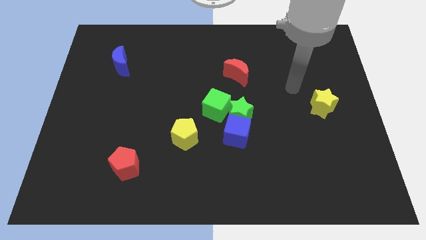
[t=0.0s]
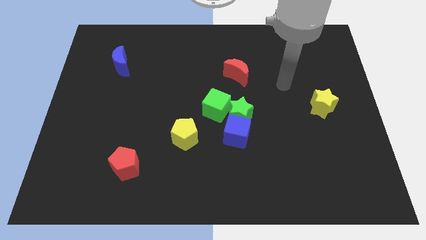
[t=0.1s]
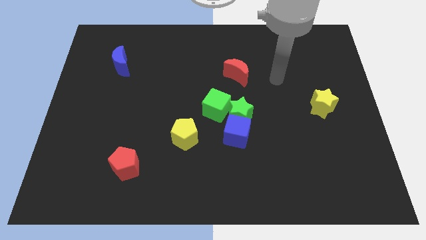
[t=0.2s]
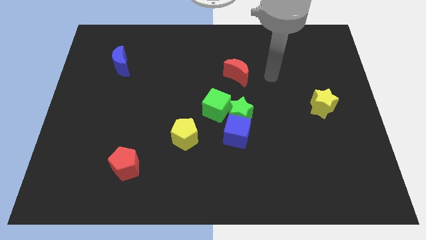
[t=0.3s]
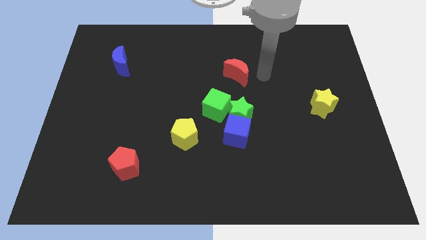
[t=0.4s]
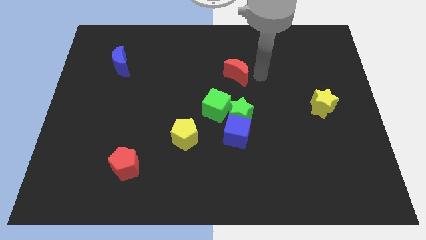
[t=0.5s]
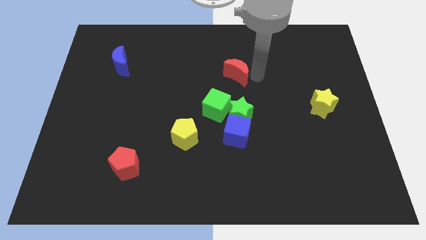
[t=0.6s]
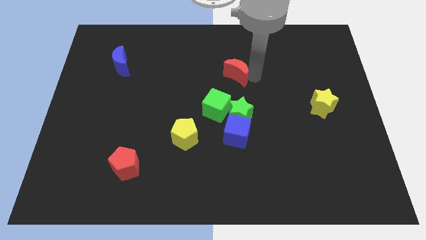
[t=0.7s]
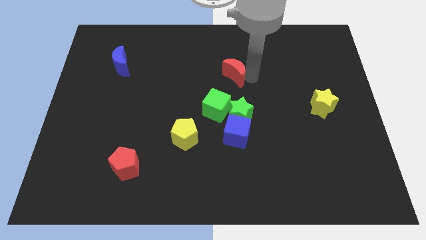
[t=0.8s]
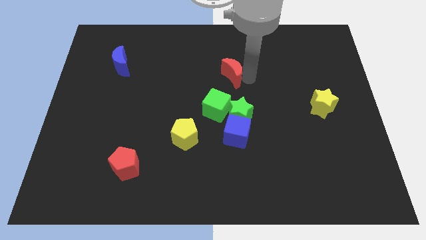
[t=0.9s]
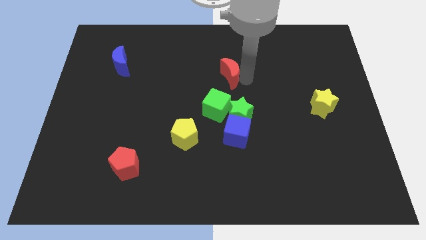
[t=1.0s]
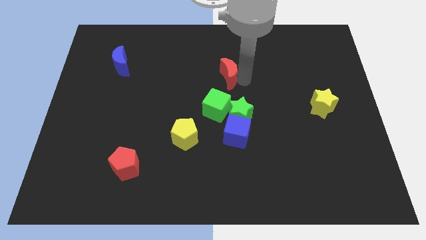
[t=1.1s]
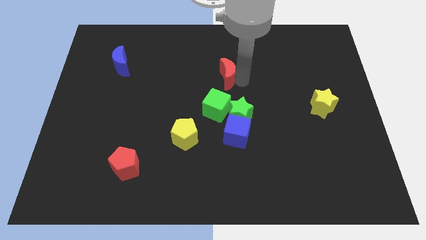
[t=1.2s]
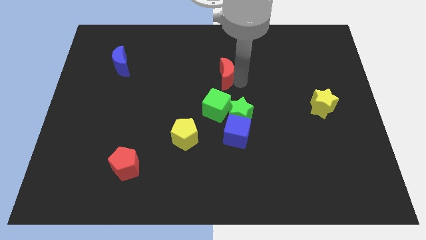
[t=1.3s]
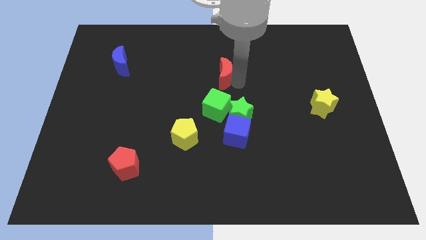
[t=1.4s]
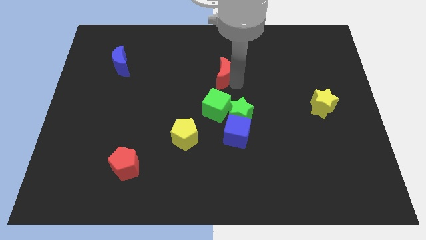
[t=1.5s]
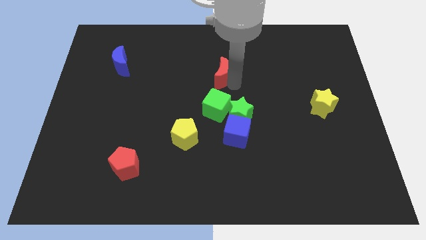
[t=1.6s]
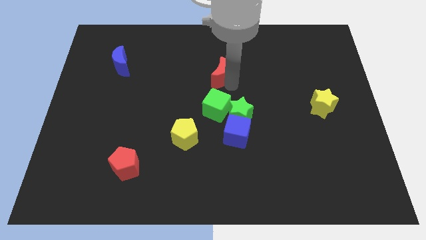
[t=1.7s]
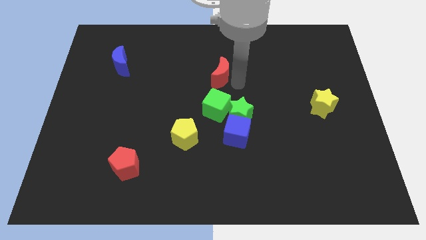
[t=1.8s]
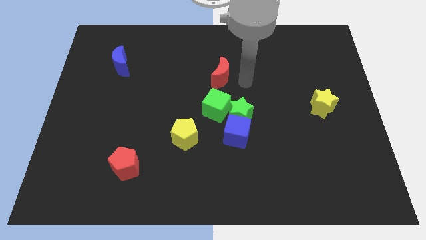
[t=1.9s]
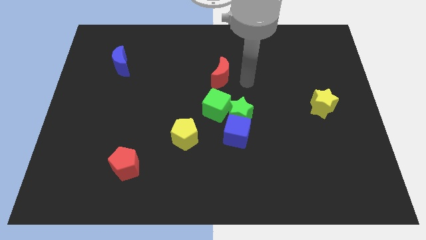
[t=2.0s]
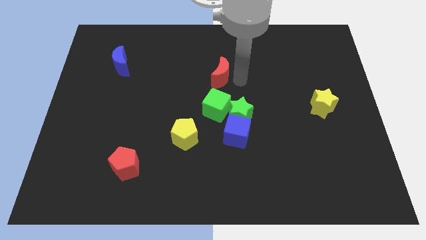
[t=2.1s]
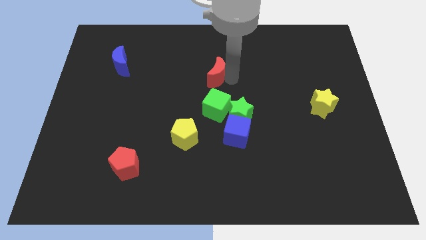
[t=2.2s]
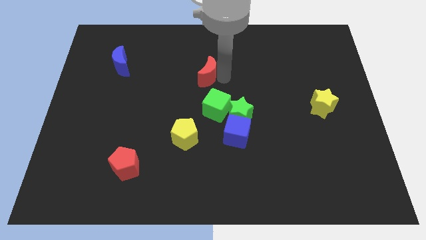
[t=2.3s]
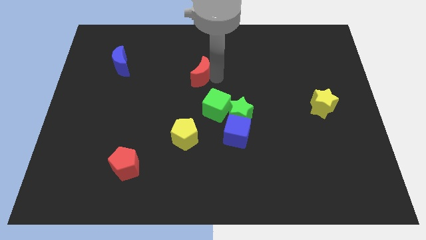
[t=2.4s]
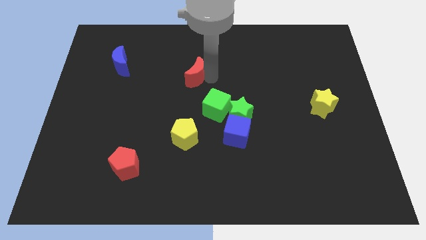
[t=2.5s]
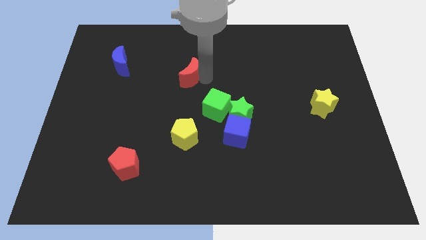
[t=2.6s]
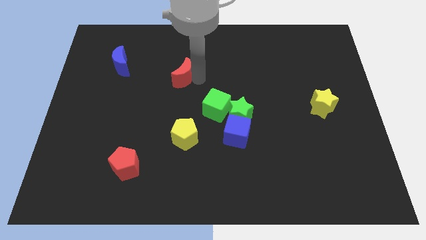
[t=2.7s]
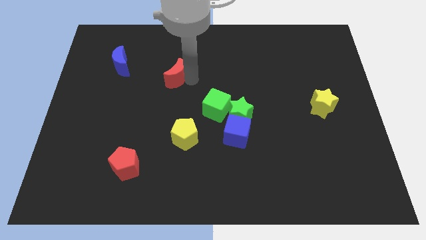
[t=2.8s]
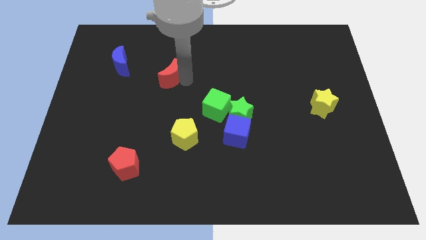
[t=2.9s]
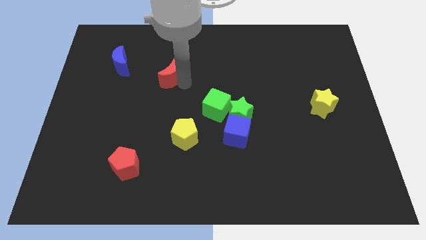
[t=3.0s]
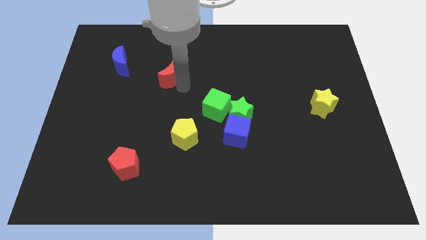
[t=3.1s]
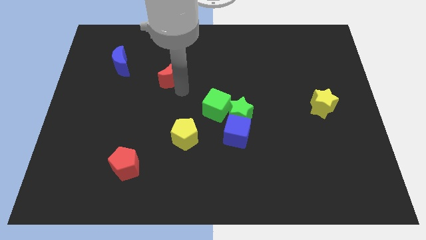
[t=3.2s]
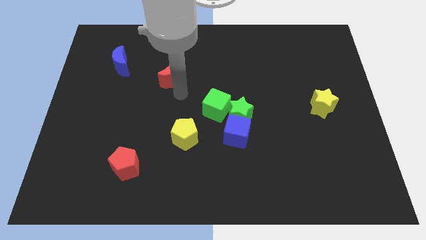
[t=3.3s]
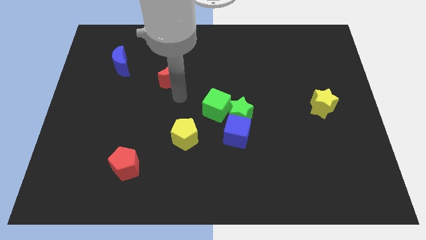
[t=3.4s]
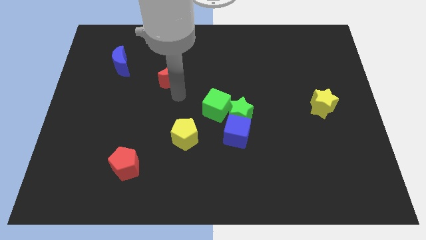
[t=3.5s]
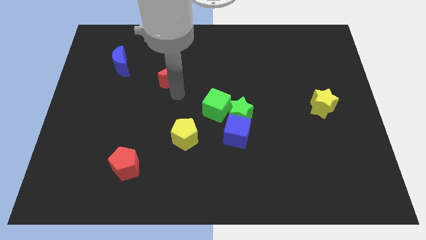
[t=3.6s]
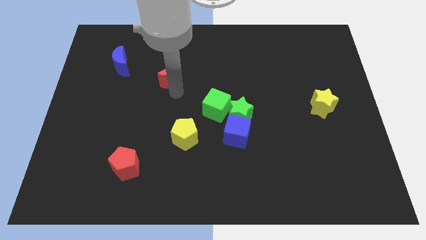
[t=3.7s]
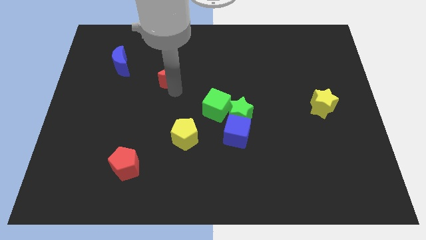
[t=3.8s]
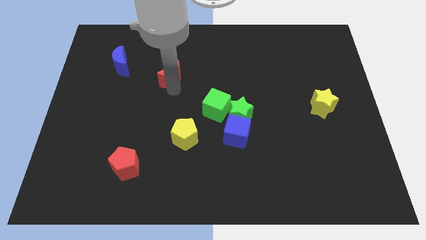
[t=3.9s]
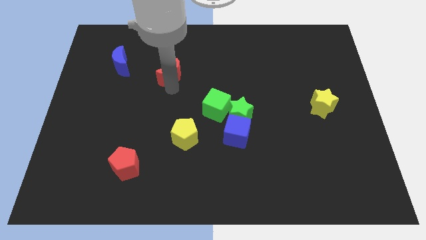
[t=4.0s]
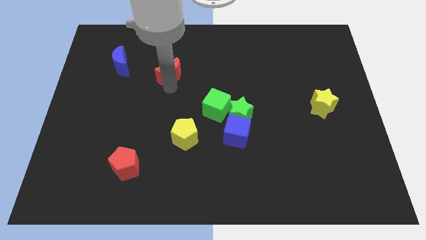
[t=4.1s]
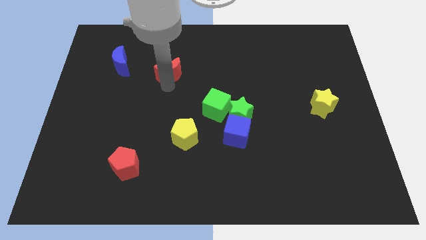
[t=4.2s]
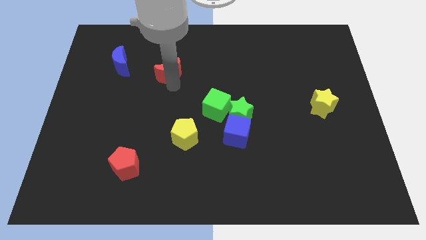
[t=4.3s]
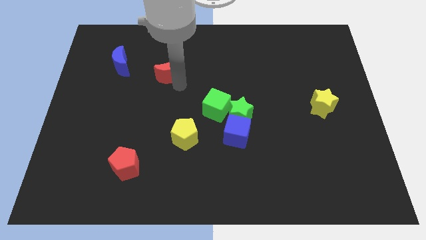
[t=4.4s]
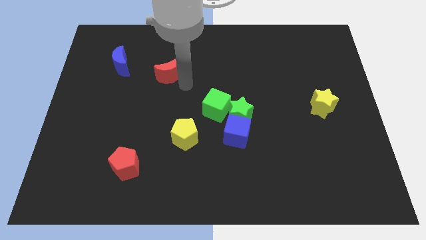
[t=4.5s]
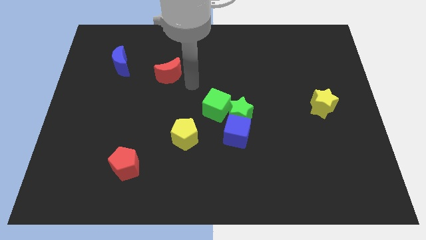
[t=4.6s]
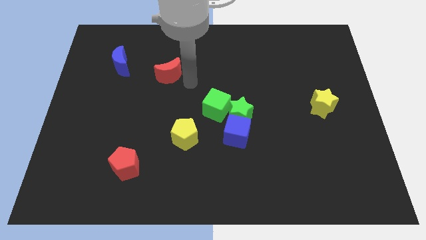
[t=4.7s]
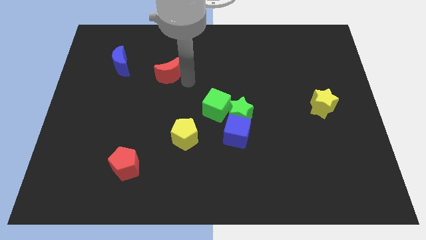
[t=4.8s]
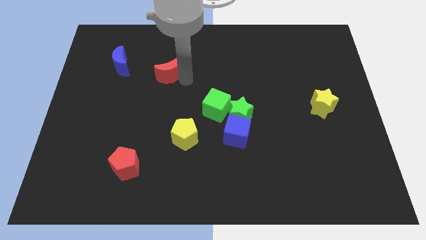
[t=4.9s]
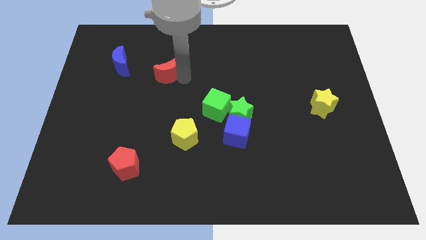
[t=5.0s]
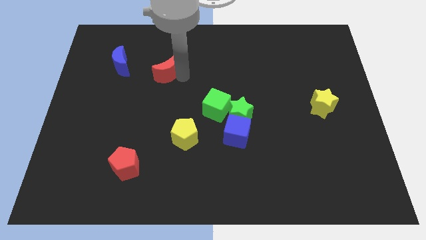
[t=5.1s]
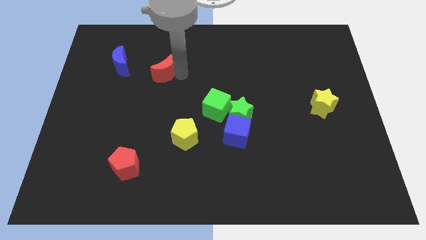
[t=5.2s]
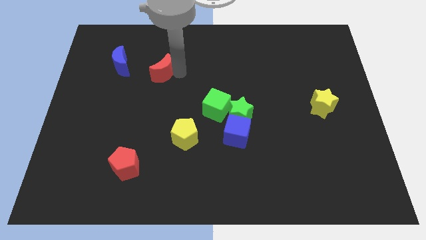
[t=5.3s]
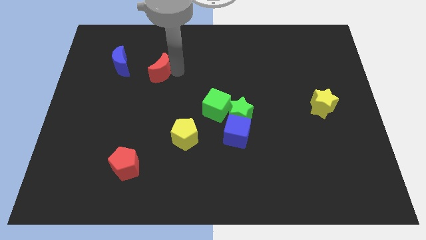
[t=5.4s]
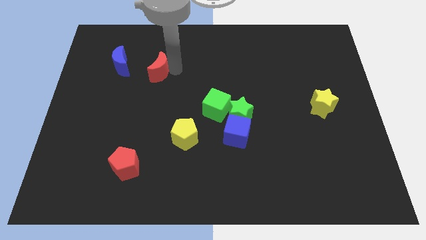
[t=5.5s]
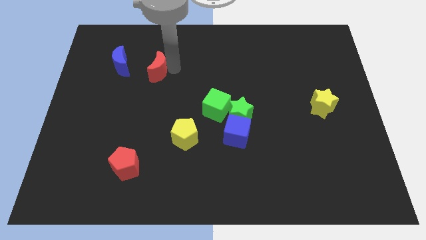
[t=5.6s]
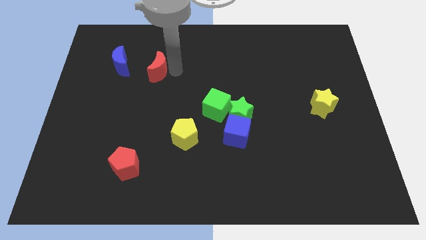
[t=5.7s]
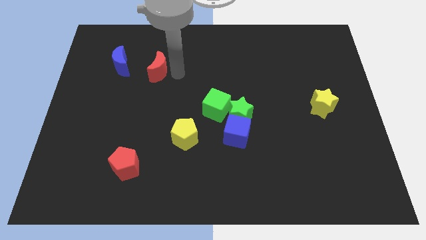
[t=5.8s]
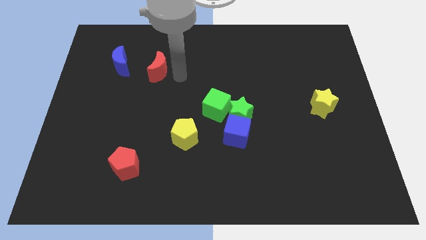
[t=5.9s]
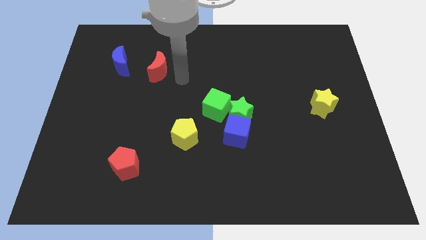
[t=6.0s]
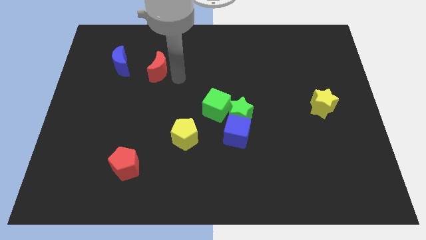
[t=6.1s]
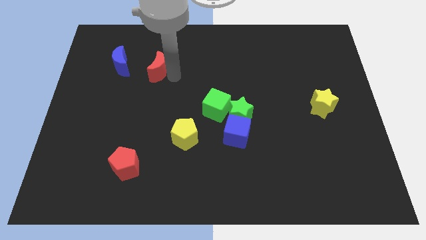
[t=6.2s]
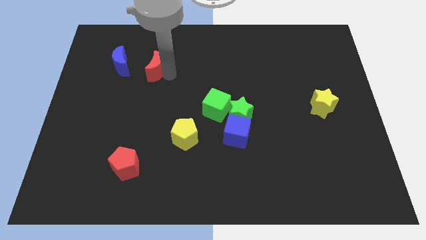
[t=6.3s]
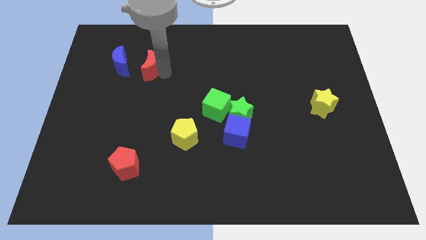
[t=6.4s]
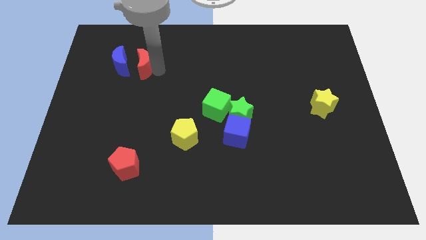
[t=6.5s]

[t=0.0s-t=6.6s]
move the red moon towards the blue moon
